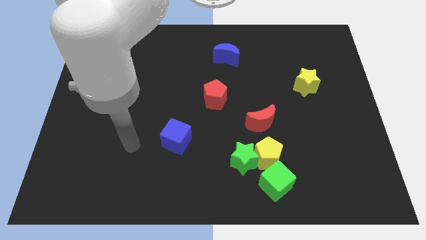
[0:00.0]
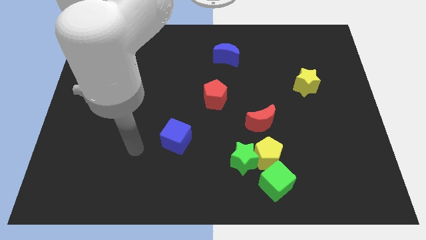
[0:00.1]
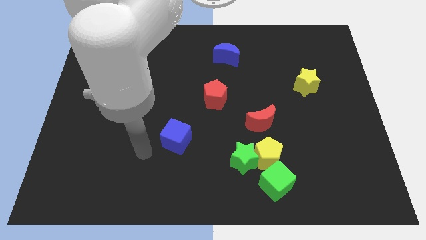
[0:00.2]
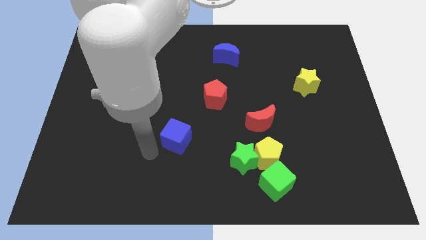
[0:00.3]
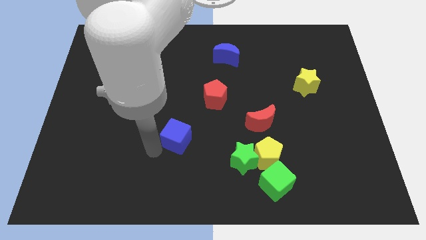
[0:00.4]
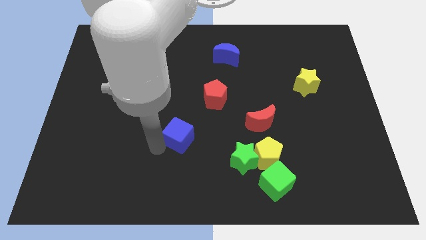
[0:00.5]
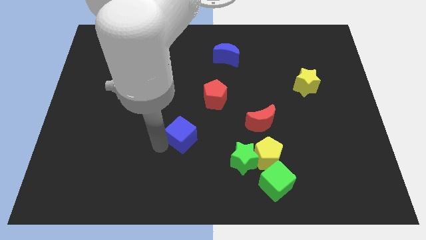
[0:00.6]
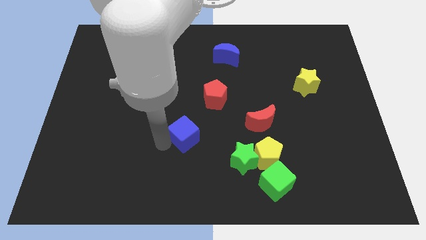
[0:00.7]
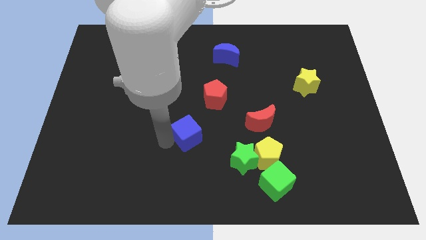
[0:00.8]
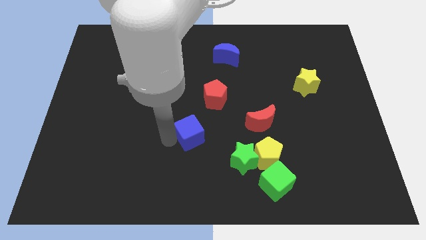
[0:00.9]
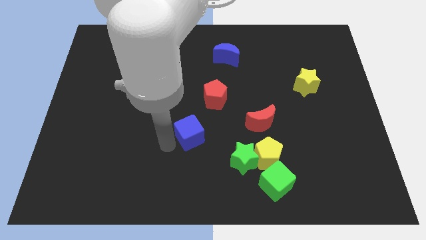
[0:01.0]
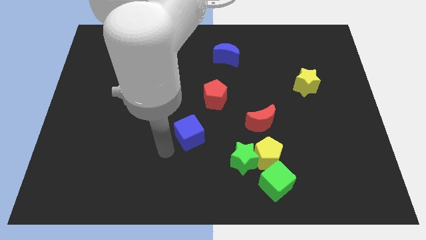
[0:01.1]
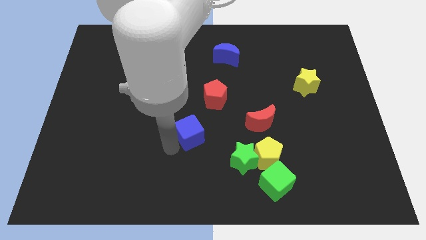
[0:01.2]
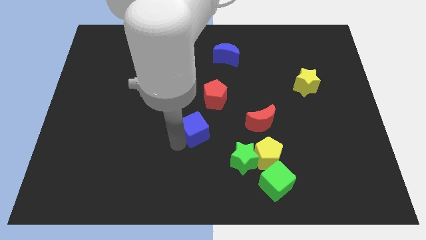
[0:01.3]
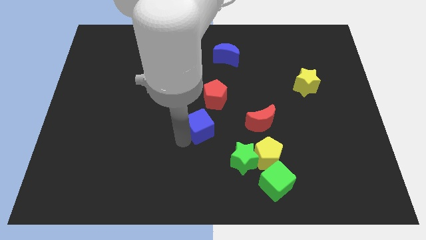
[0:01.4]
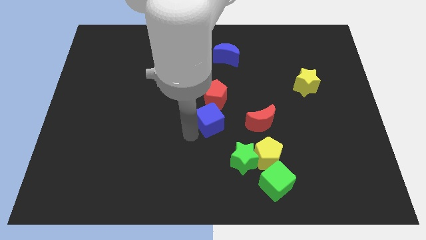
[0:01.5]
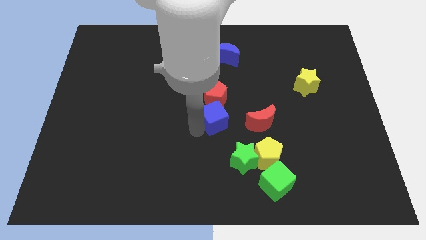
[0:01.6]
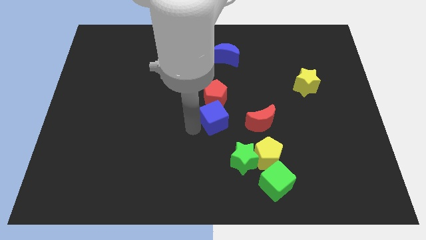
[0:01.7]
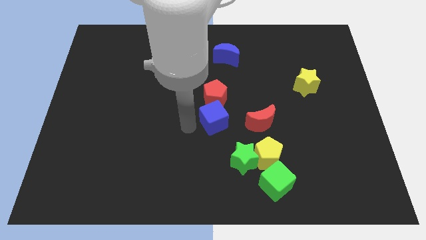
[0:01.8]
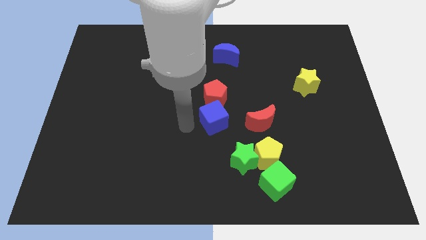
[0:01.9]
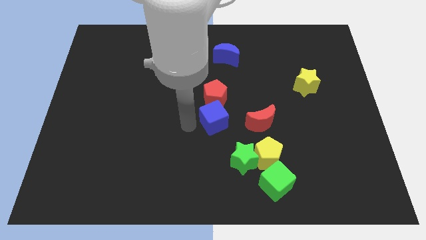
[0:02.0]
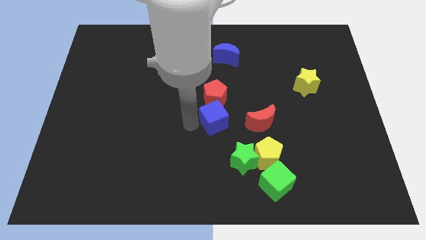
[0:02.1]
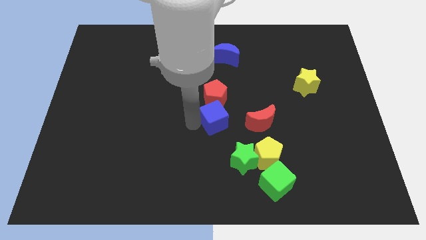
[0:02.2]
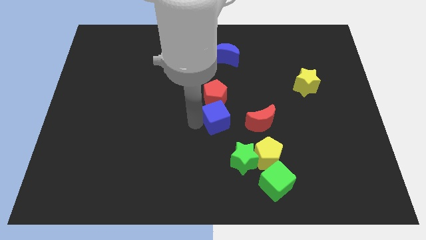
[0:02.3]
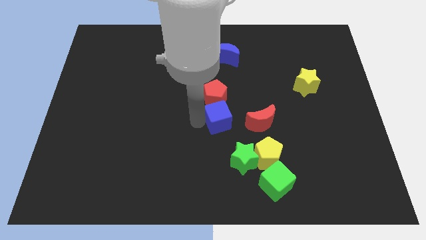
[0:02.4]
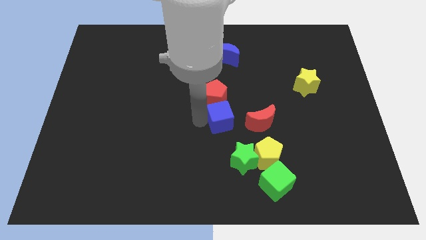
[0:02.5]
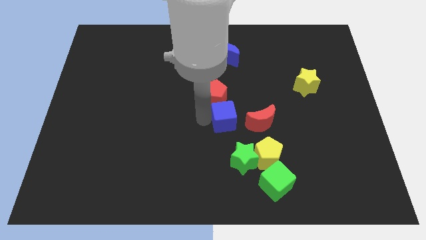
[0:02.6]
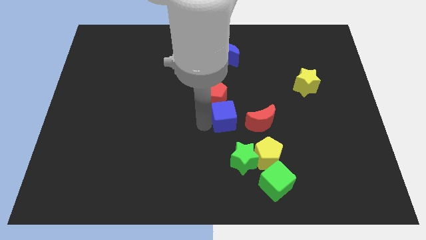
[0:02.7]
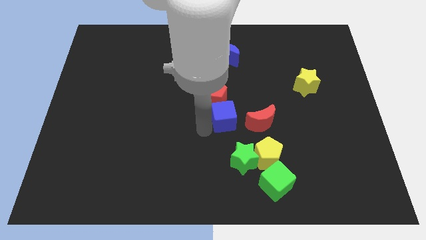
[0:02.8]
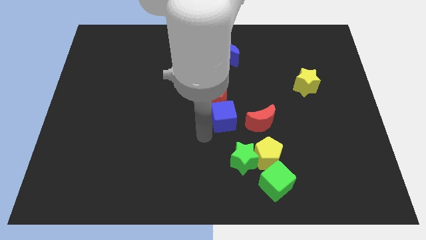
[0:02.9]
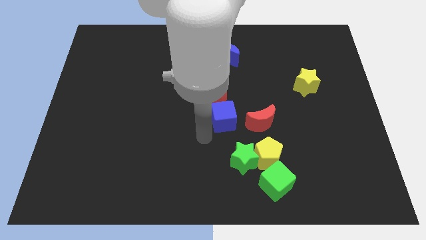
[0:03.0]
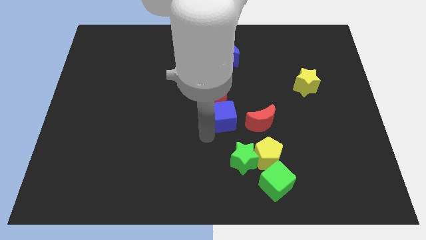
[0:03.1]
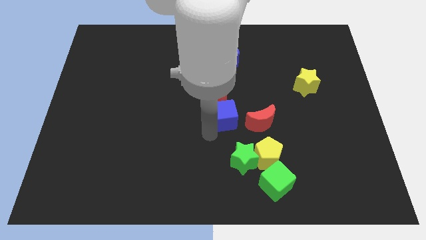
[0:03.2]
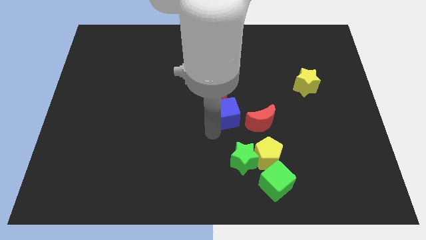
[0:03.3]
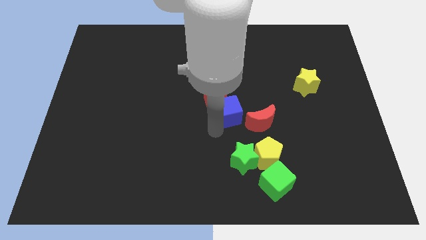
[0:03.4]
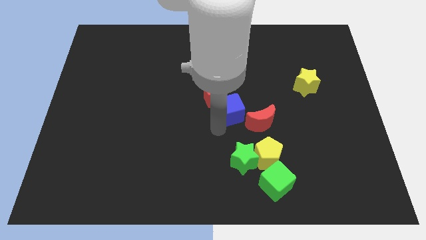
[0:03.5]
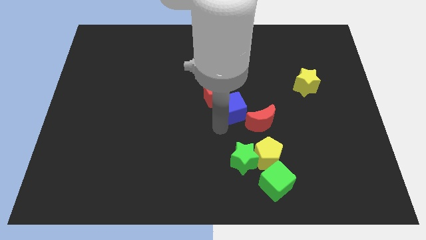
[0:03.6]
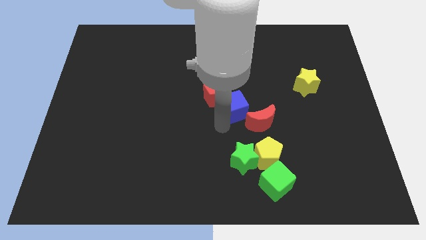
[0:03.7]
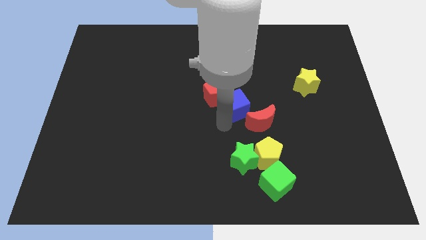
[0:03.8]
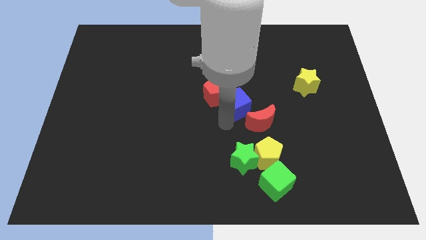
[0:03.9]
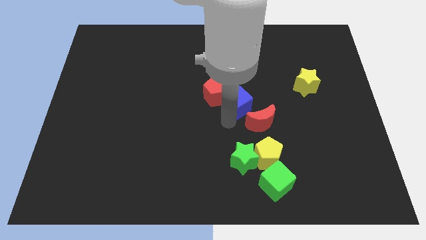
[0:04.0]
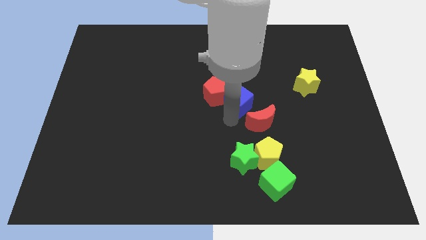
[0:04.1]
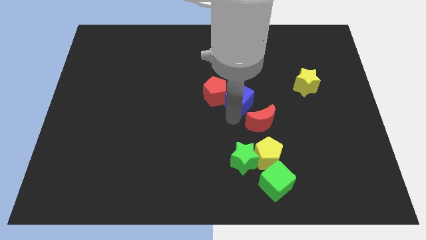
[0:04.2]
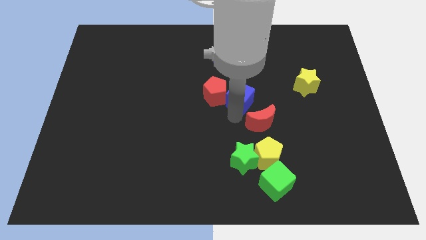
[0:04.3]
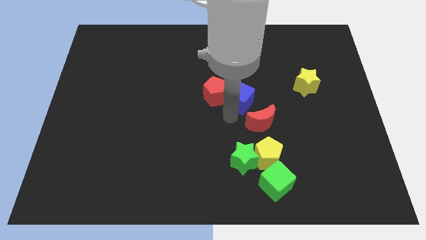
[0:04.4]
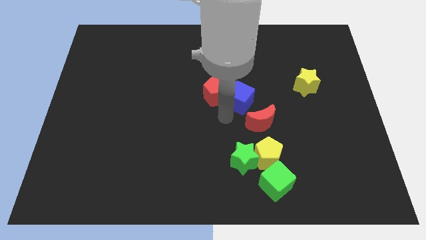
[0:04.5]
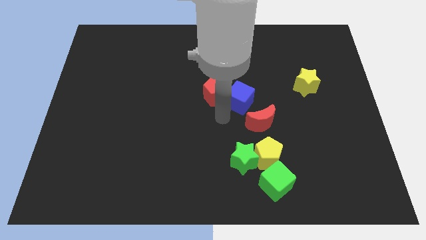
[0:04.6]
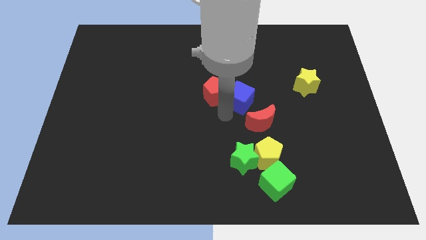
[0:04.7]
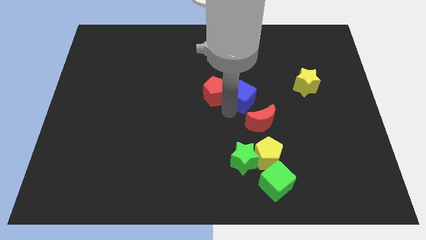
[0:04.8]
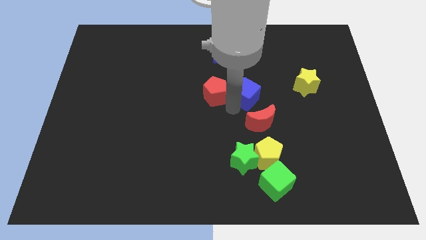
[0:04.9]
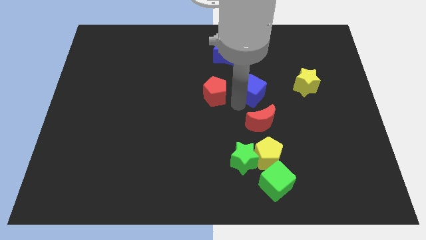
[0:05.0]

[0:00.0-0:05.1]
push the blue cube up and then to the right

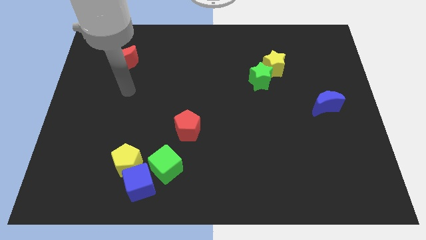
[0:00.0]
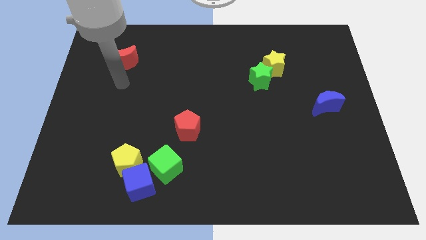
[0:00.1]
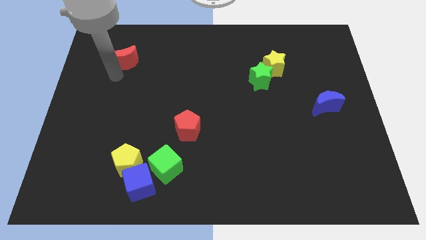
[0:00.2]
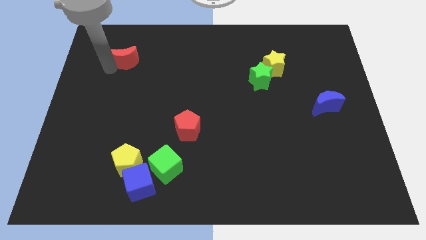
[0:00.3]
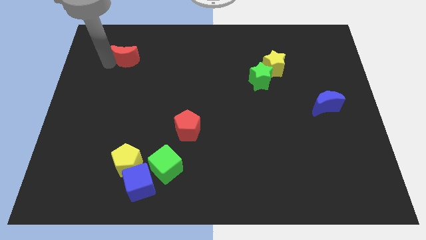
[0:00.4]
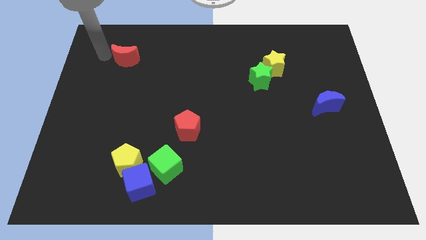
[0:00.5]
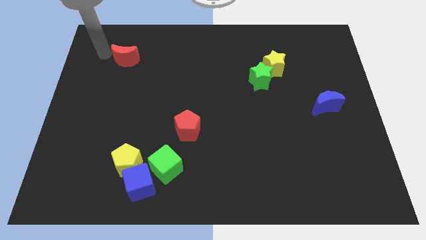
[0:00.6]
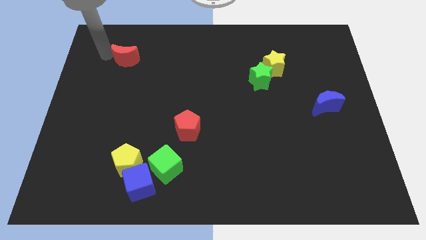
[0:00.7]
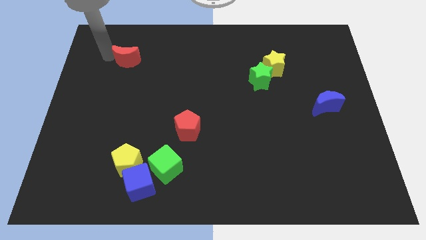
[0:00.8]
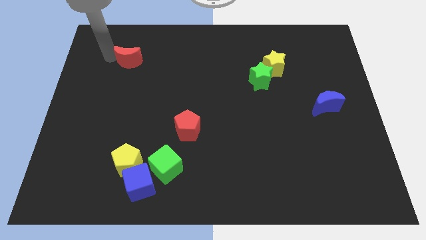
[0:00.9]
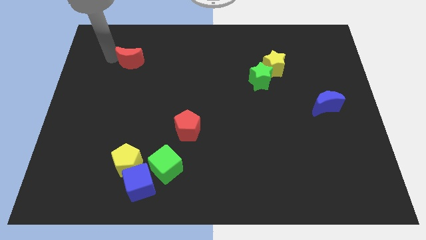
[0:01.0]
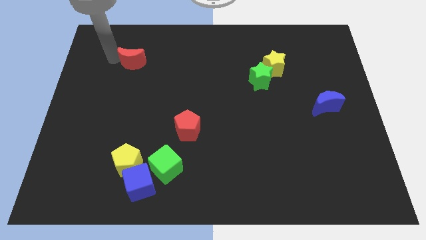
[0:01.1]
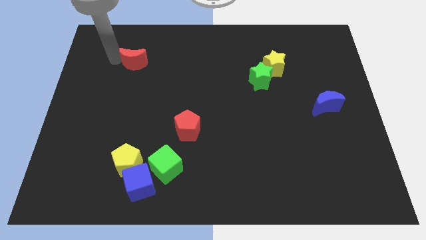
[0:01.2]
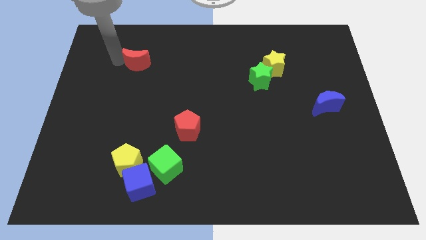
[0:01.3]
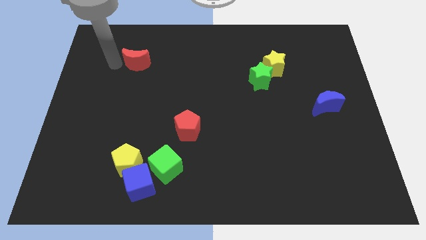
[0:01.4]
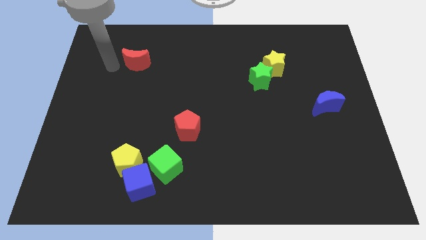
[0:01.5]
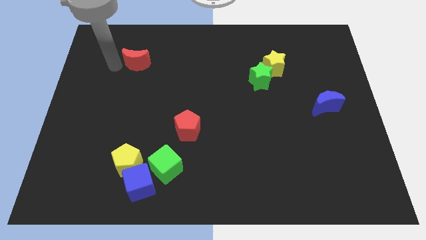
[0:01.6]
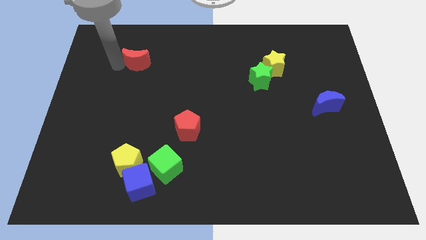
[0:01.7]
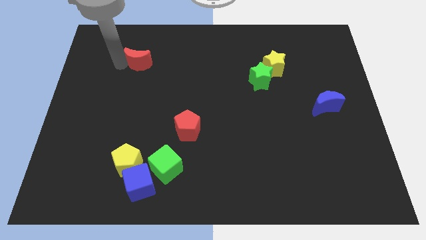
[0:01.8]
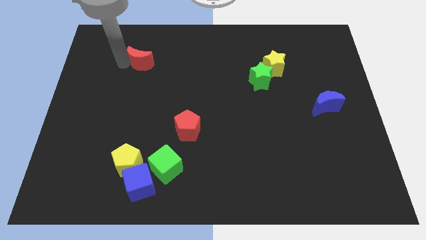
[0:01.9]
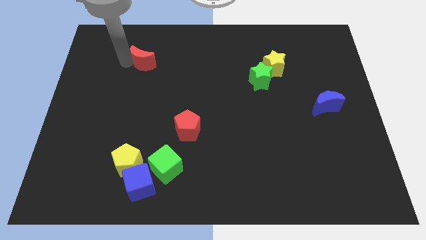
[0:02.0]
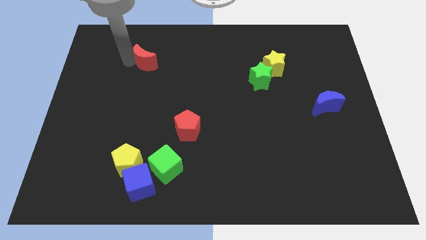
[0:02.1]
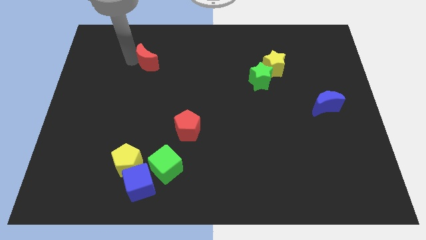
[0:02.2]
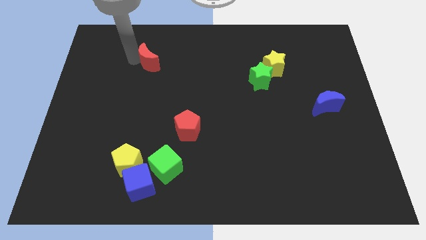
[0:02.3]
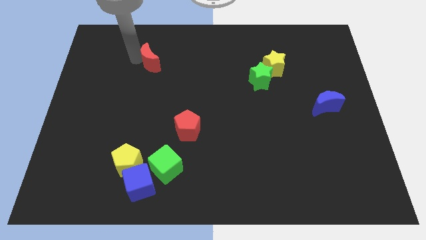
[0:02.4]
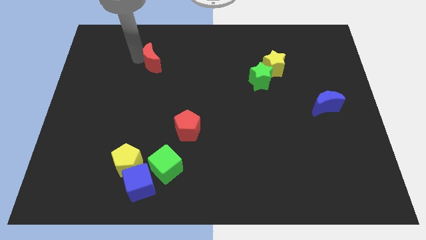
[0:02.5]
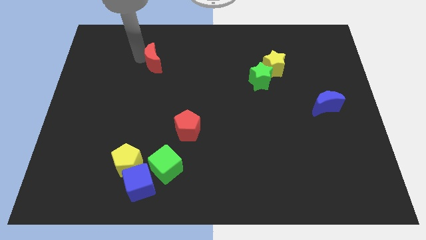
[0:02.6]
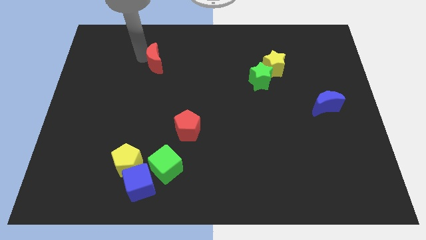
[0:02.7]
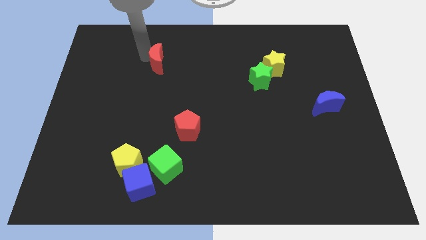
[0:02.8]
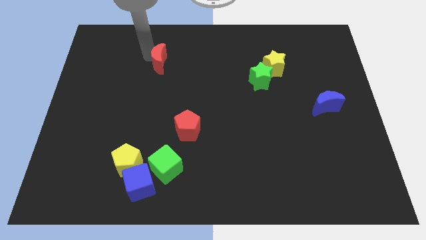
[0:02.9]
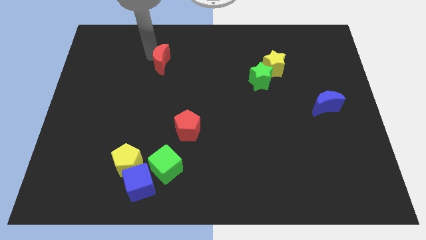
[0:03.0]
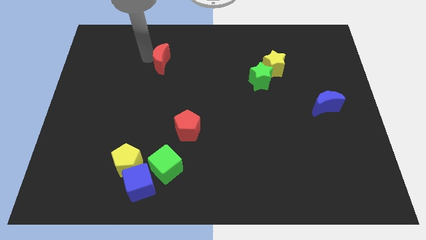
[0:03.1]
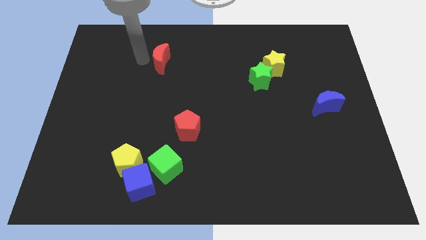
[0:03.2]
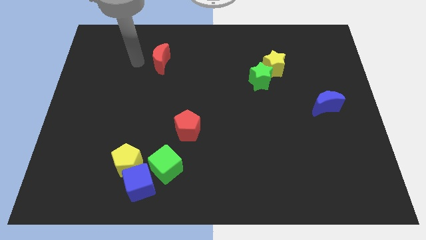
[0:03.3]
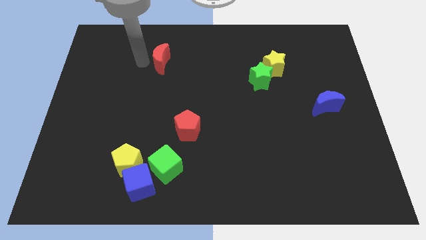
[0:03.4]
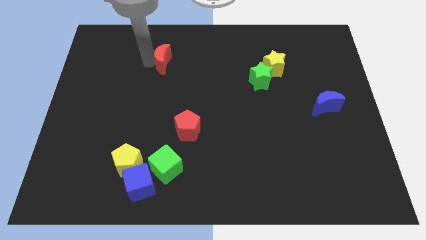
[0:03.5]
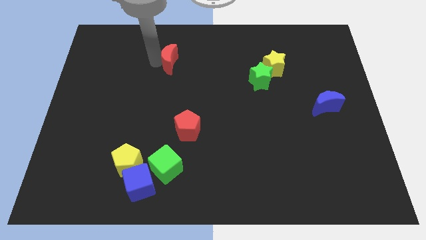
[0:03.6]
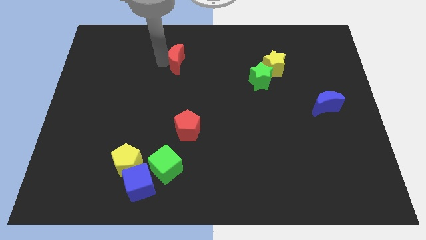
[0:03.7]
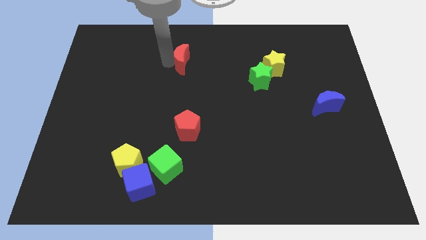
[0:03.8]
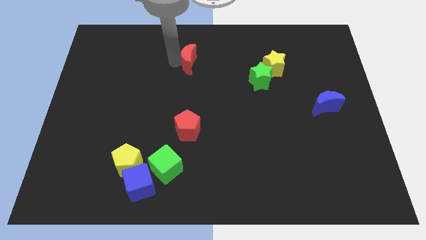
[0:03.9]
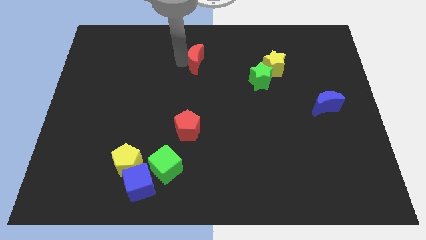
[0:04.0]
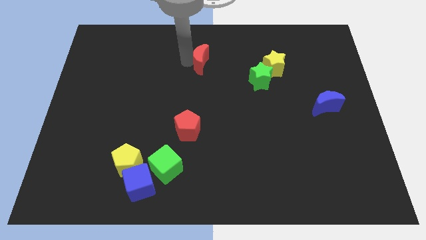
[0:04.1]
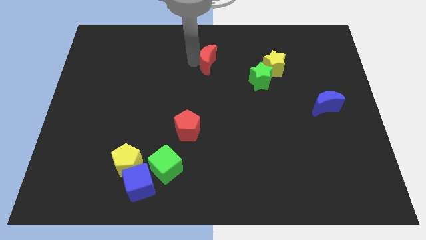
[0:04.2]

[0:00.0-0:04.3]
push the red moon right
